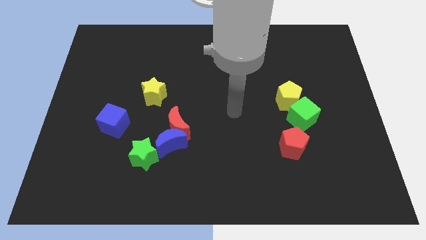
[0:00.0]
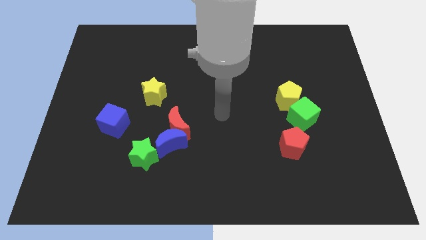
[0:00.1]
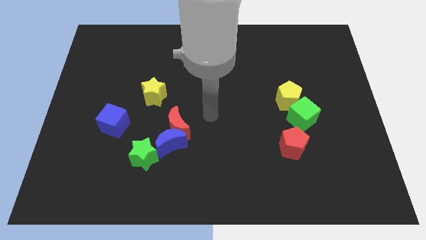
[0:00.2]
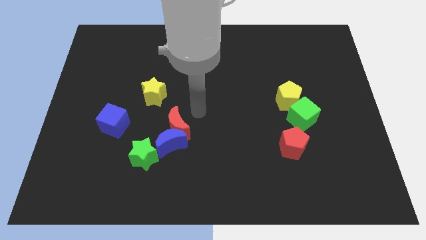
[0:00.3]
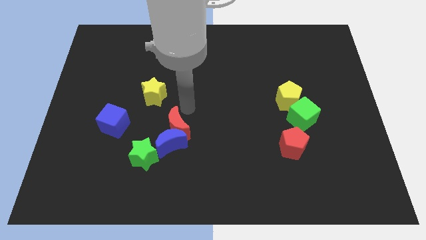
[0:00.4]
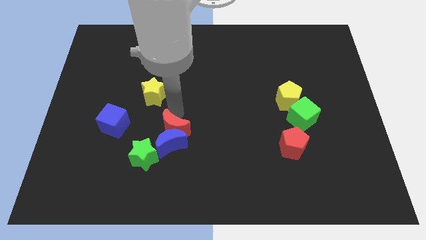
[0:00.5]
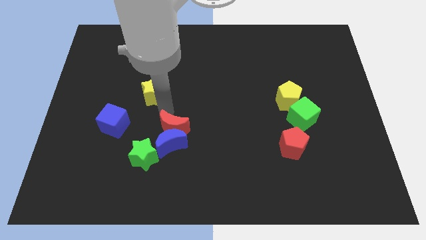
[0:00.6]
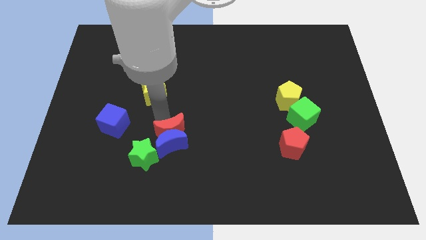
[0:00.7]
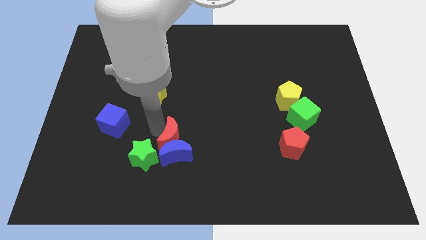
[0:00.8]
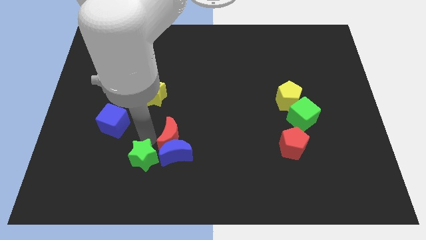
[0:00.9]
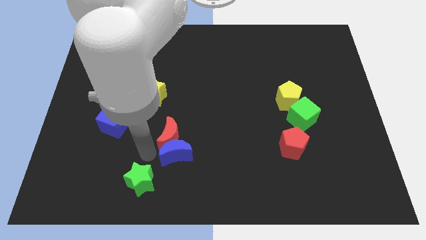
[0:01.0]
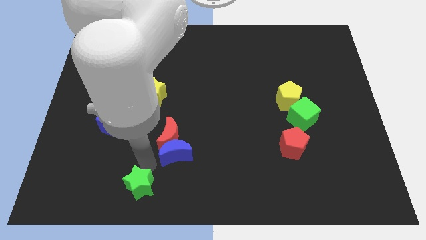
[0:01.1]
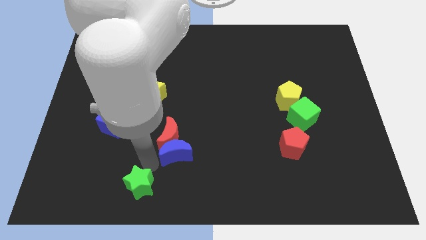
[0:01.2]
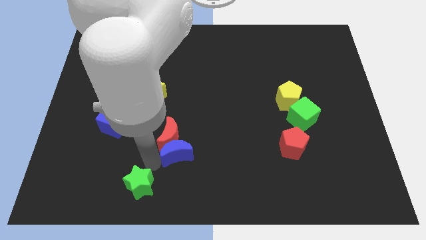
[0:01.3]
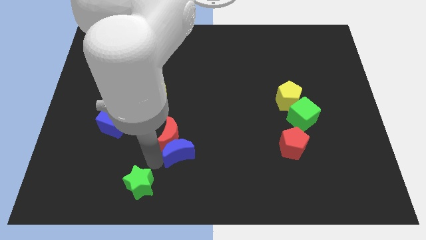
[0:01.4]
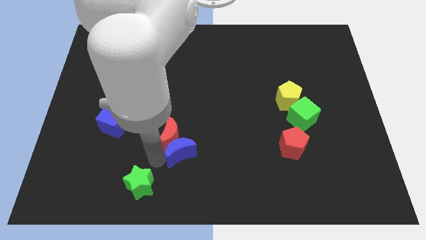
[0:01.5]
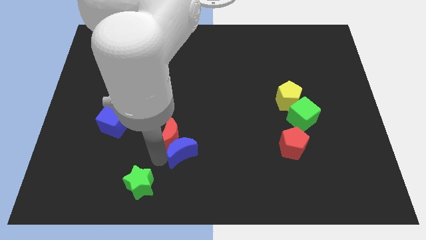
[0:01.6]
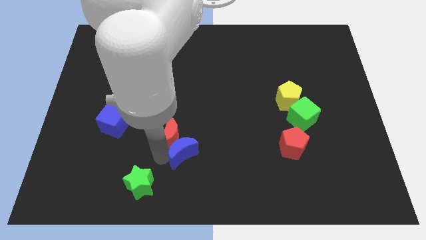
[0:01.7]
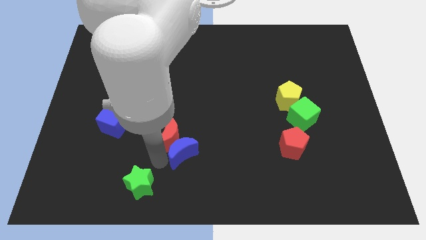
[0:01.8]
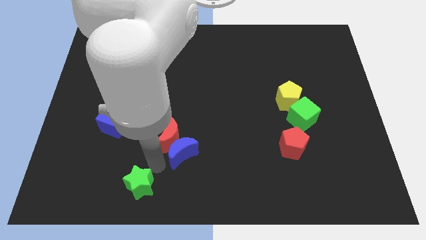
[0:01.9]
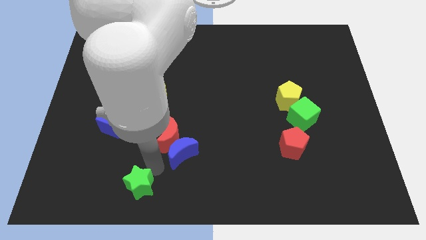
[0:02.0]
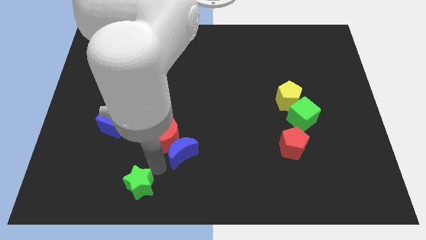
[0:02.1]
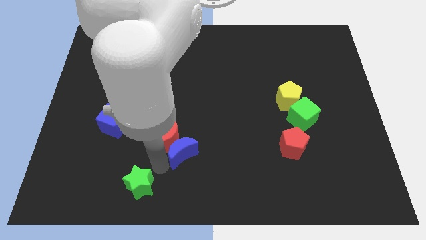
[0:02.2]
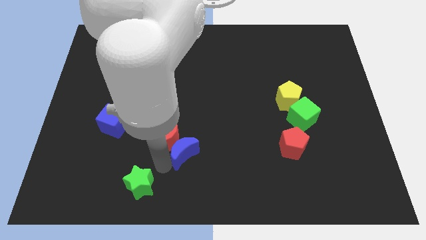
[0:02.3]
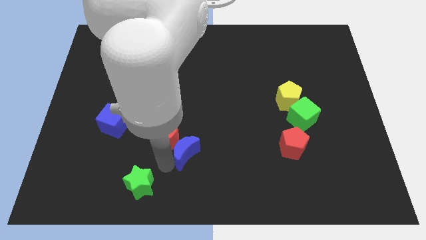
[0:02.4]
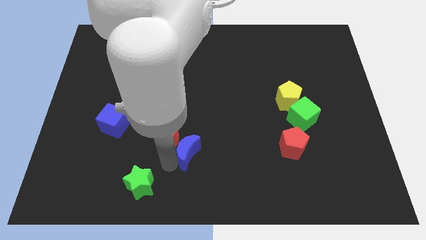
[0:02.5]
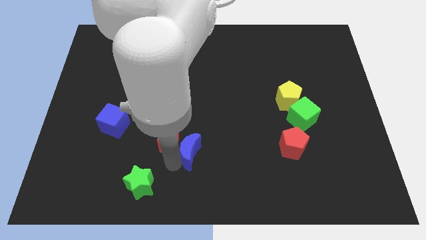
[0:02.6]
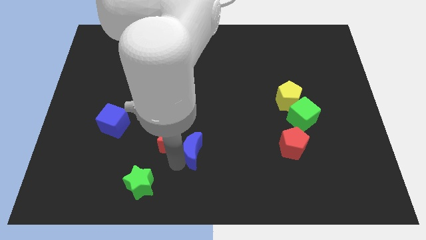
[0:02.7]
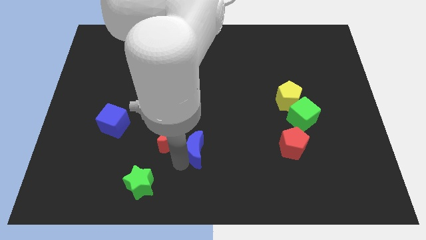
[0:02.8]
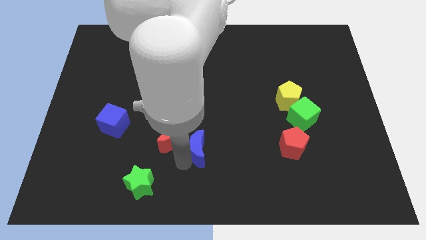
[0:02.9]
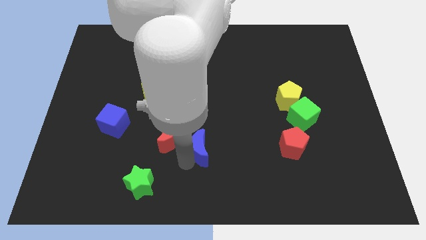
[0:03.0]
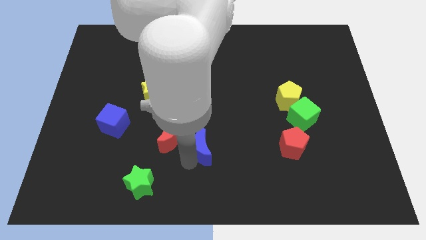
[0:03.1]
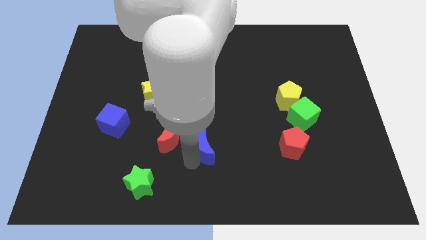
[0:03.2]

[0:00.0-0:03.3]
pull the blue moon apart from the red moon and green star

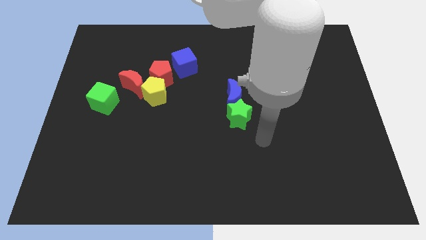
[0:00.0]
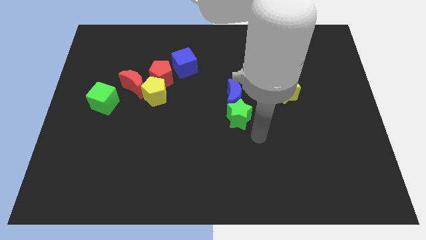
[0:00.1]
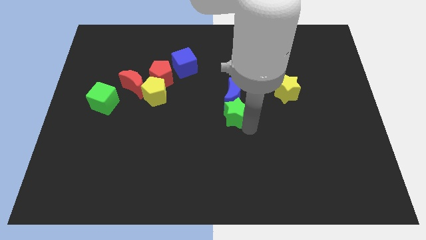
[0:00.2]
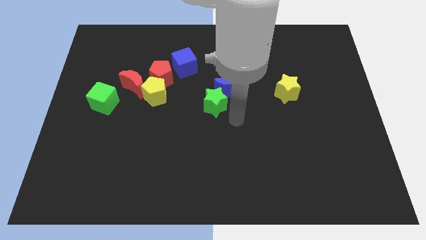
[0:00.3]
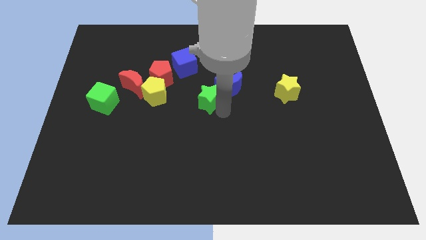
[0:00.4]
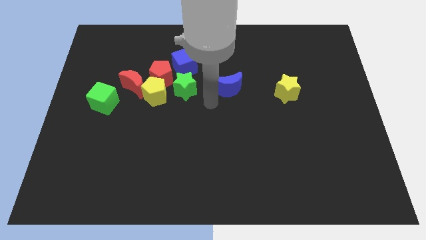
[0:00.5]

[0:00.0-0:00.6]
pull the blue moon apart from the green star

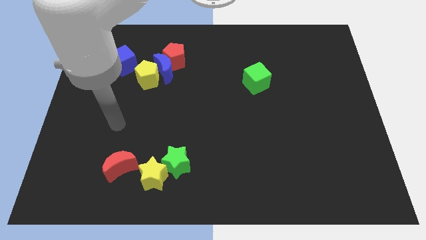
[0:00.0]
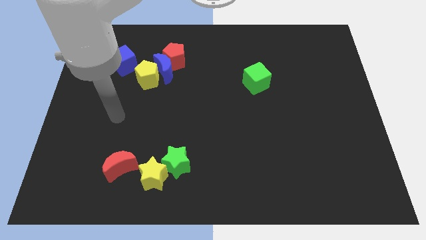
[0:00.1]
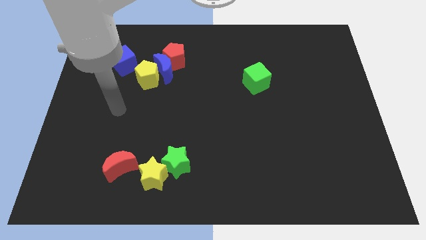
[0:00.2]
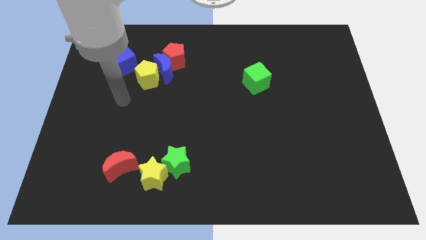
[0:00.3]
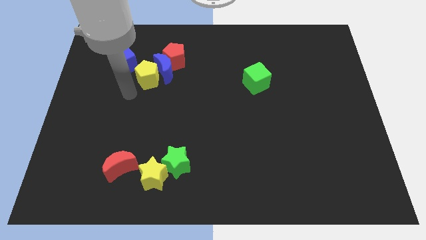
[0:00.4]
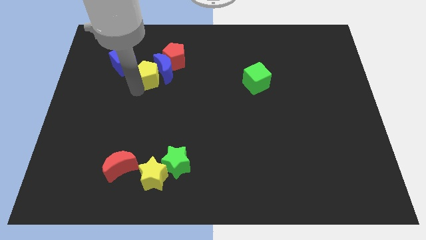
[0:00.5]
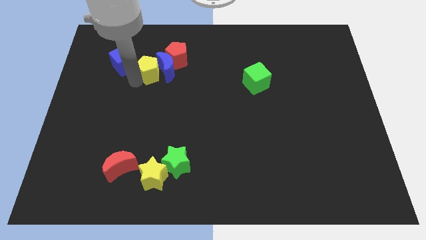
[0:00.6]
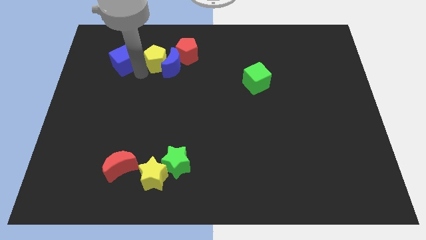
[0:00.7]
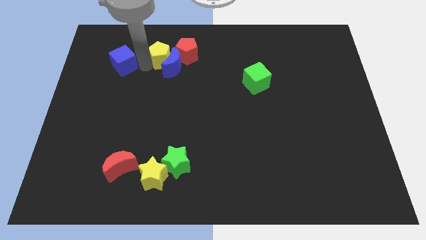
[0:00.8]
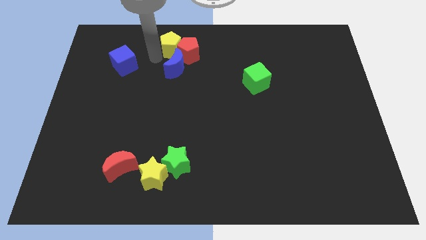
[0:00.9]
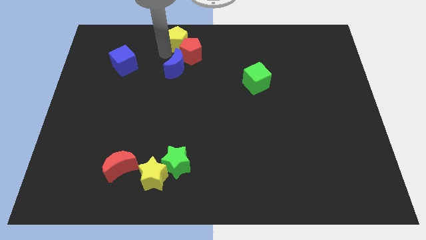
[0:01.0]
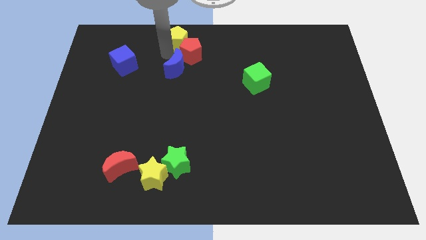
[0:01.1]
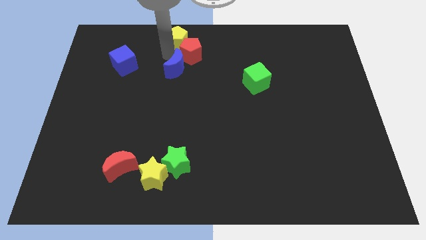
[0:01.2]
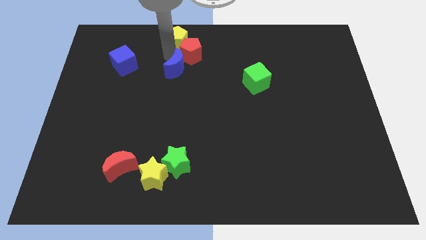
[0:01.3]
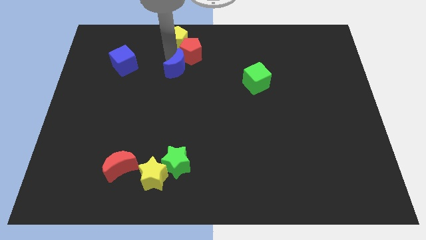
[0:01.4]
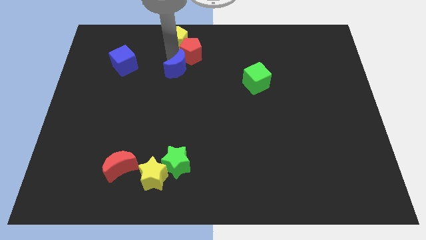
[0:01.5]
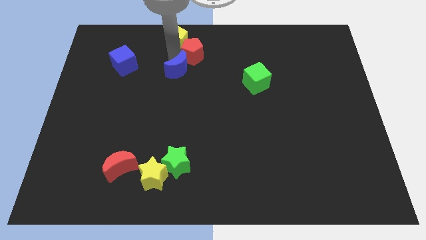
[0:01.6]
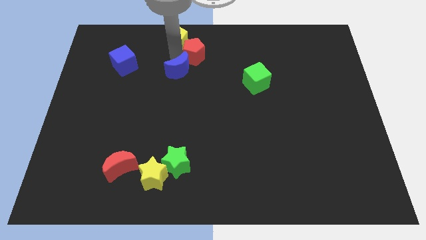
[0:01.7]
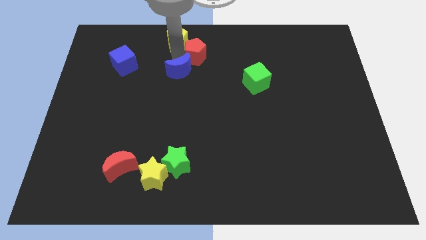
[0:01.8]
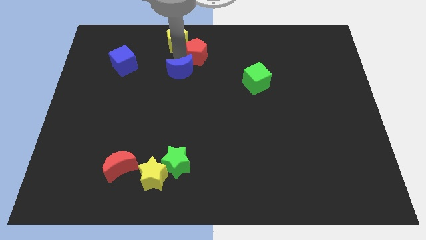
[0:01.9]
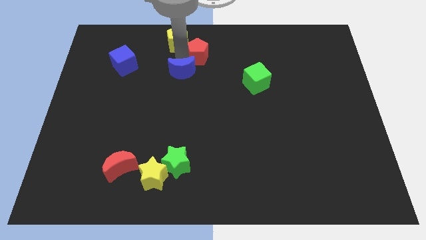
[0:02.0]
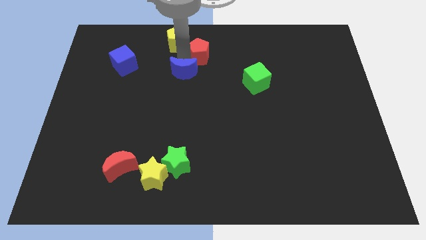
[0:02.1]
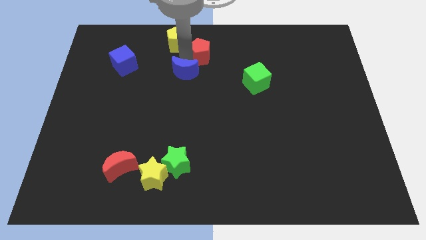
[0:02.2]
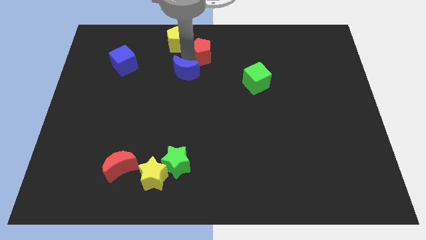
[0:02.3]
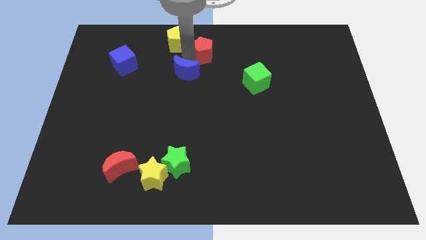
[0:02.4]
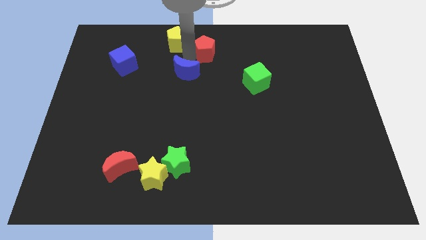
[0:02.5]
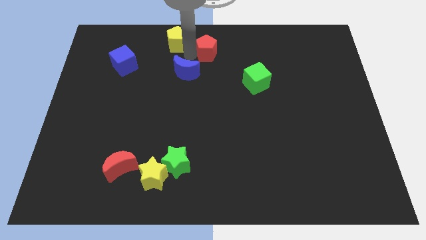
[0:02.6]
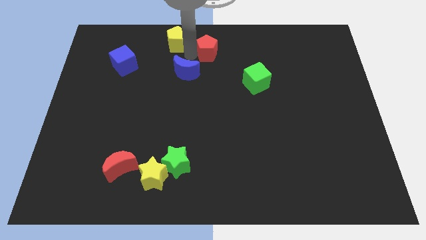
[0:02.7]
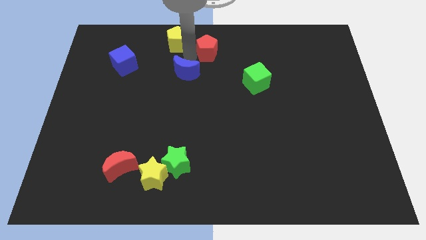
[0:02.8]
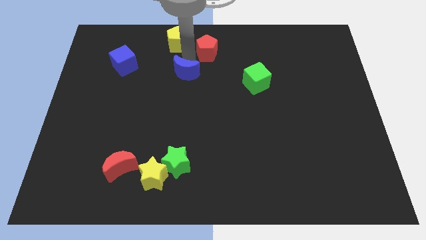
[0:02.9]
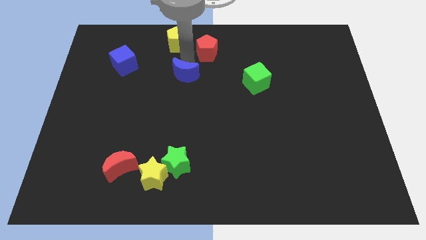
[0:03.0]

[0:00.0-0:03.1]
pull the blue moon apart from the red pentagon and yellow pentagon

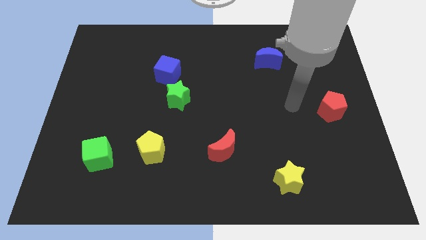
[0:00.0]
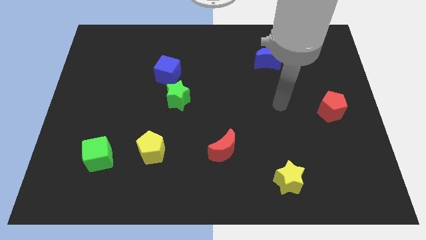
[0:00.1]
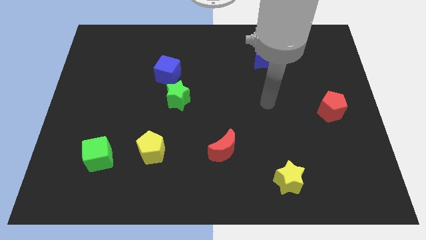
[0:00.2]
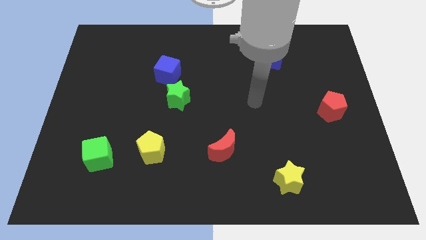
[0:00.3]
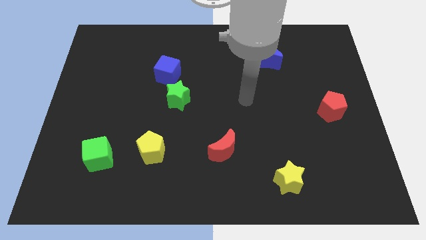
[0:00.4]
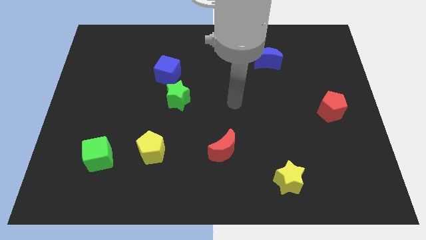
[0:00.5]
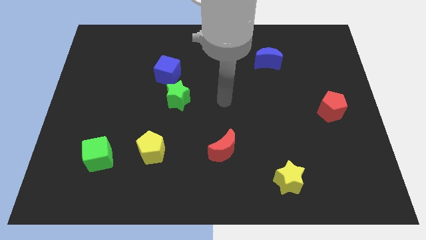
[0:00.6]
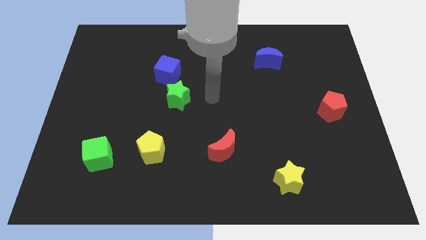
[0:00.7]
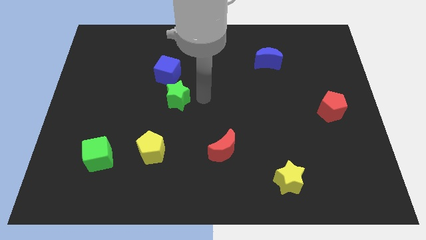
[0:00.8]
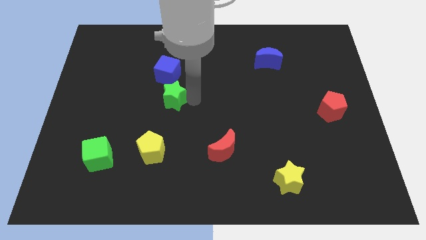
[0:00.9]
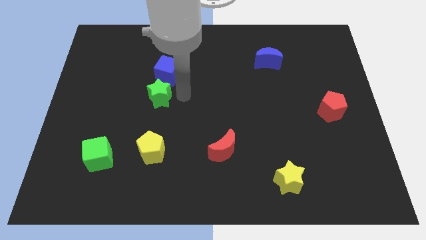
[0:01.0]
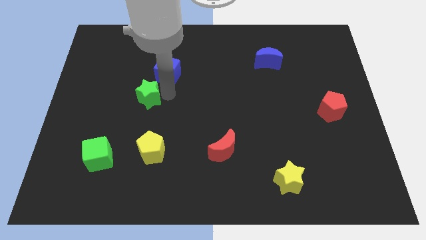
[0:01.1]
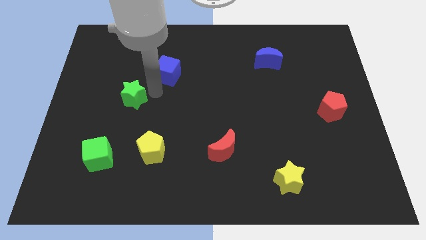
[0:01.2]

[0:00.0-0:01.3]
separate the blue cube from the green star

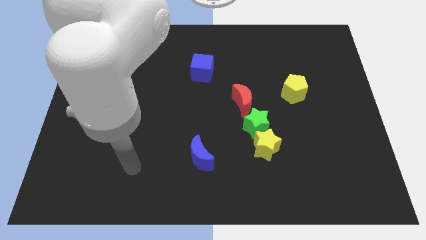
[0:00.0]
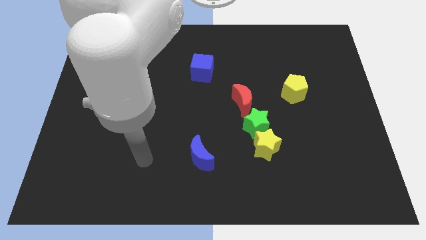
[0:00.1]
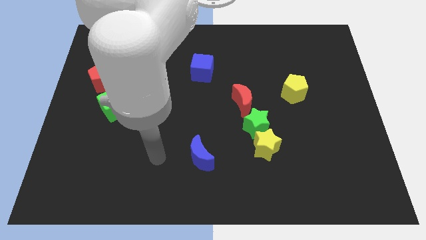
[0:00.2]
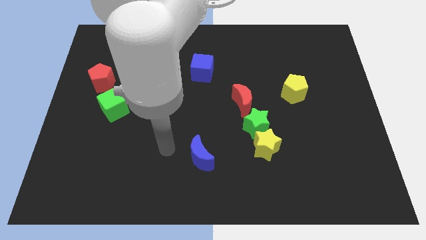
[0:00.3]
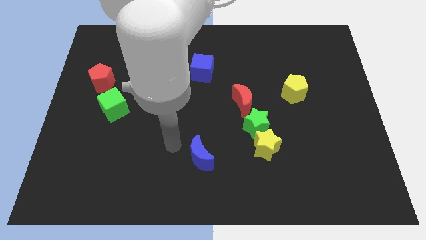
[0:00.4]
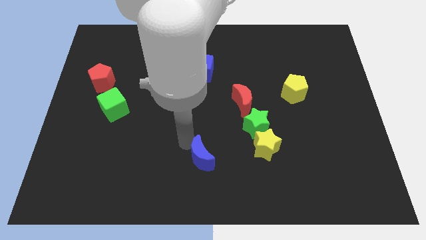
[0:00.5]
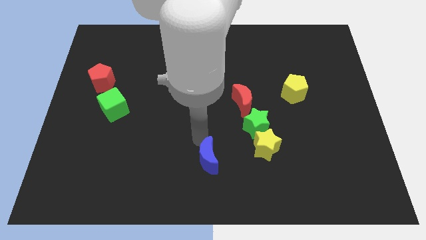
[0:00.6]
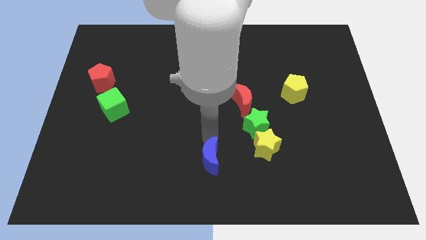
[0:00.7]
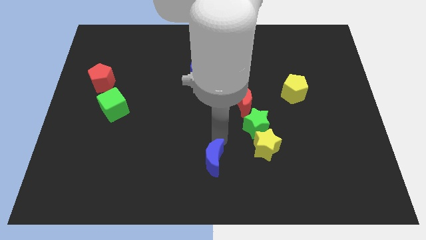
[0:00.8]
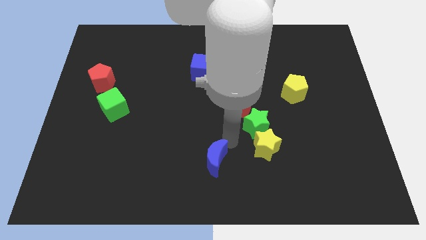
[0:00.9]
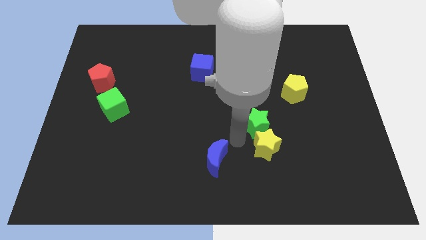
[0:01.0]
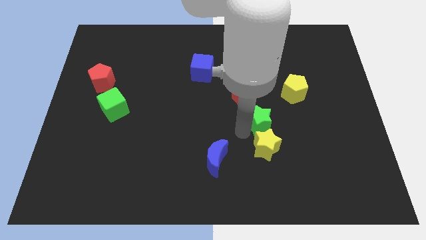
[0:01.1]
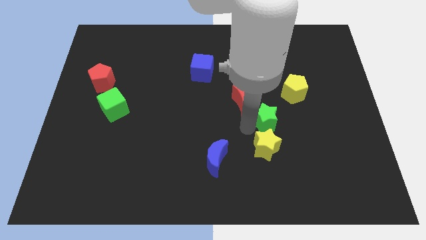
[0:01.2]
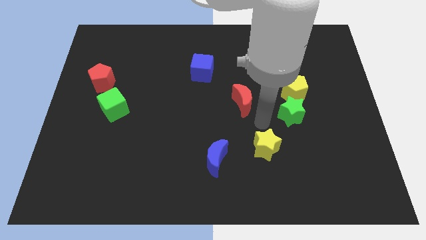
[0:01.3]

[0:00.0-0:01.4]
move the yellow star away from the green star
